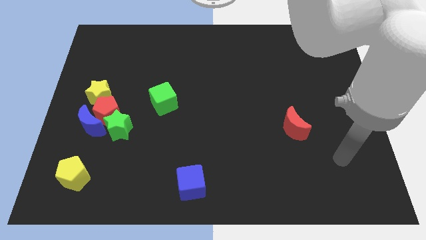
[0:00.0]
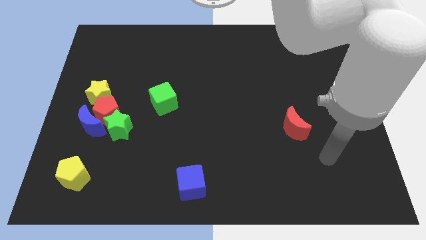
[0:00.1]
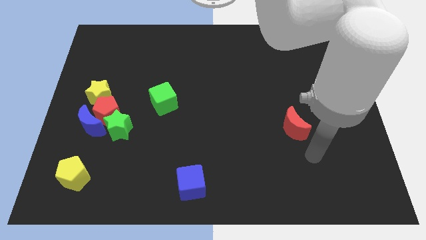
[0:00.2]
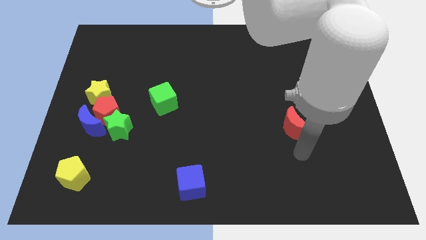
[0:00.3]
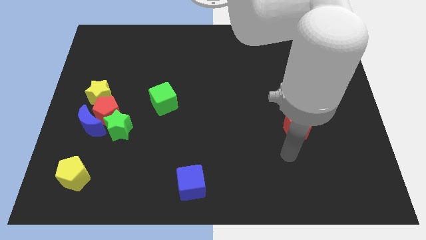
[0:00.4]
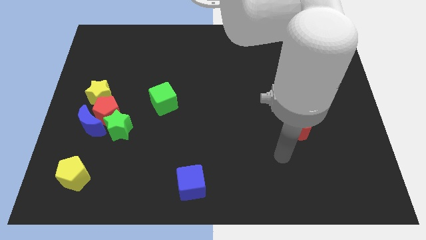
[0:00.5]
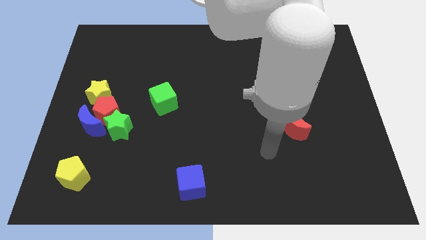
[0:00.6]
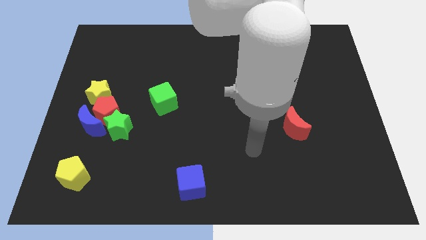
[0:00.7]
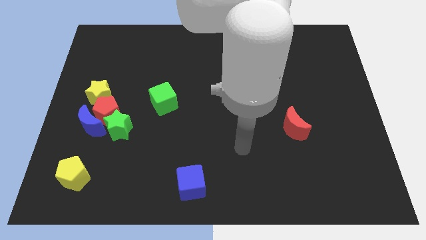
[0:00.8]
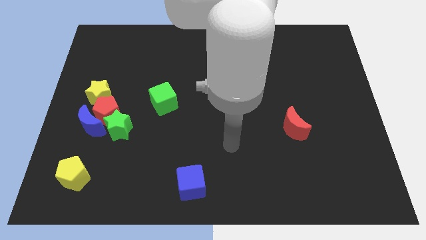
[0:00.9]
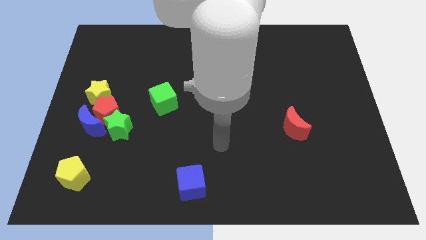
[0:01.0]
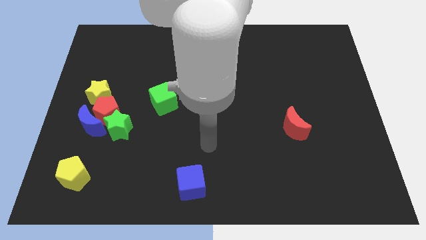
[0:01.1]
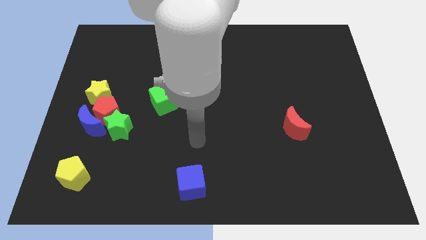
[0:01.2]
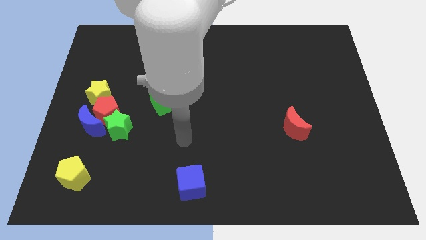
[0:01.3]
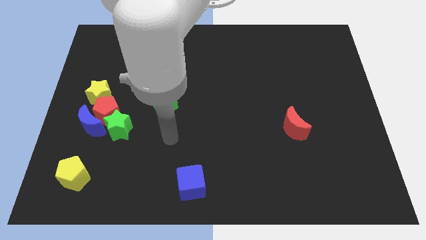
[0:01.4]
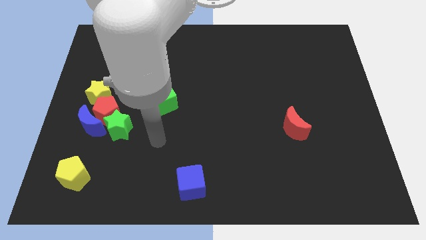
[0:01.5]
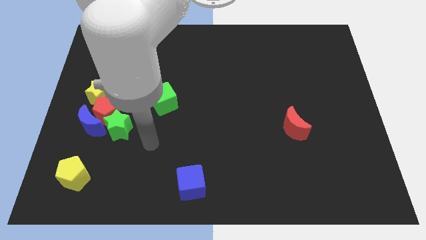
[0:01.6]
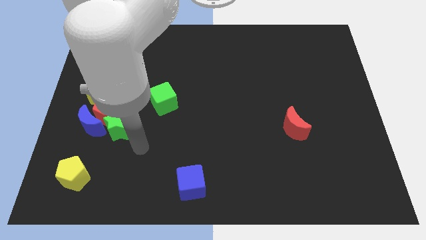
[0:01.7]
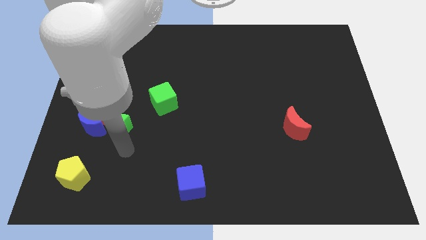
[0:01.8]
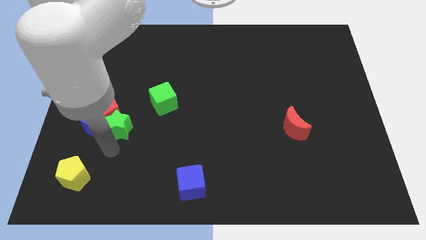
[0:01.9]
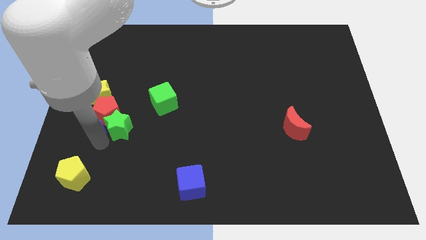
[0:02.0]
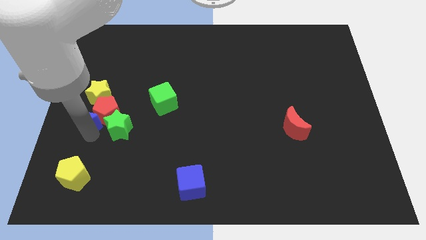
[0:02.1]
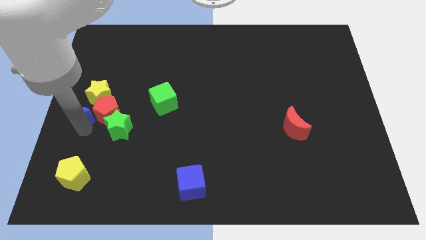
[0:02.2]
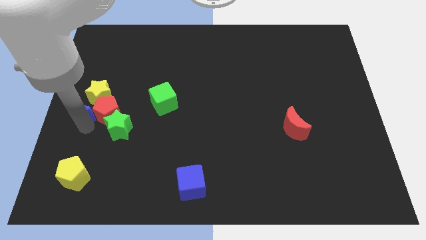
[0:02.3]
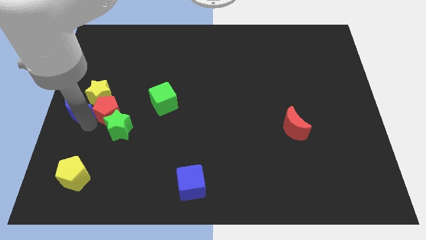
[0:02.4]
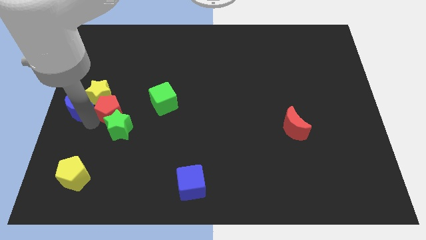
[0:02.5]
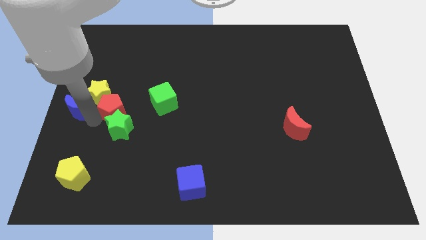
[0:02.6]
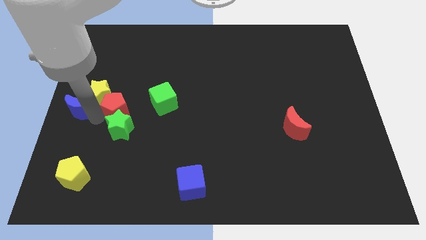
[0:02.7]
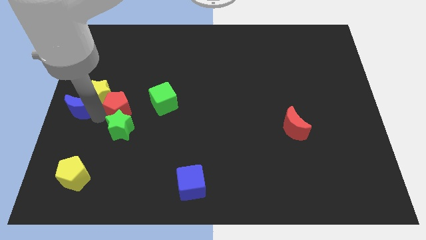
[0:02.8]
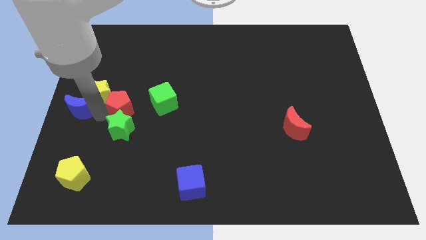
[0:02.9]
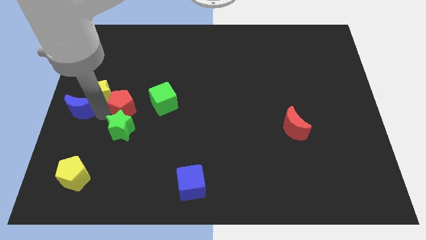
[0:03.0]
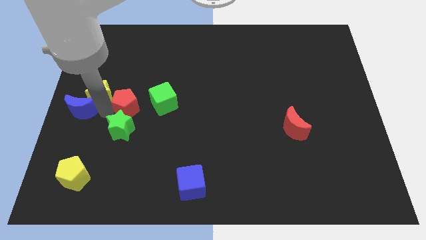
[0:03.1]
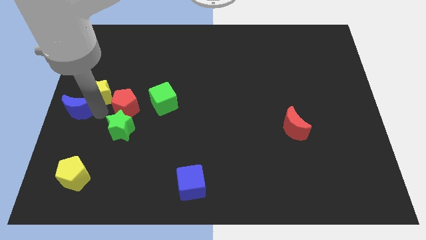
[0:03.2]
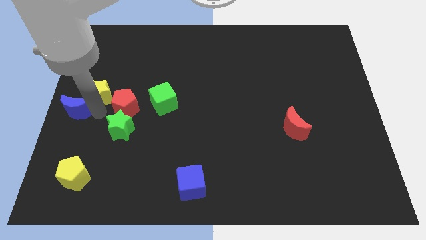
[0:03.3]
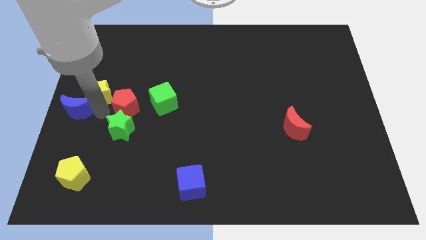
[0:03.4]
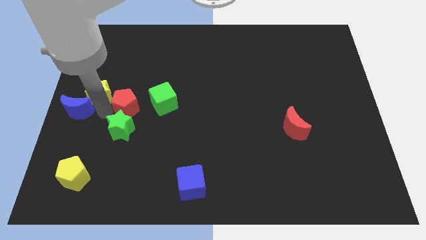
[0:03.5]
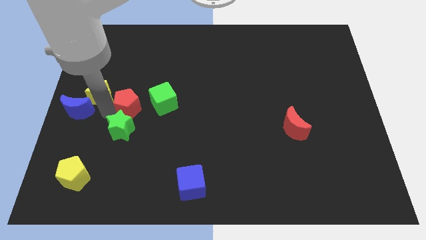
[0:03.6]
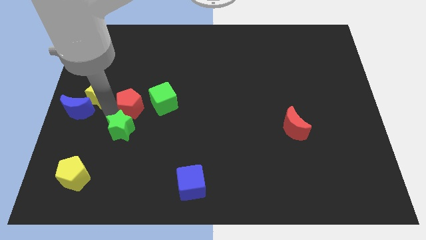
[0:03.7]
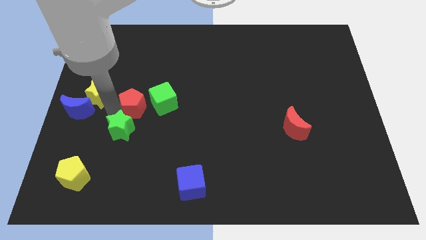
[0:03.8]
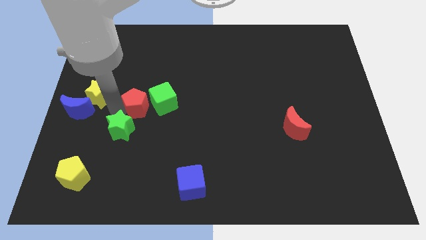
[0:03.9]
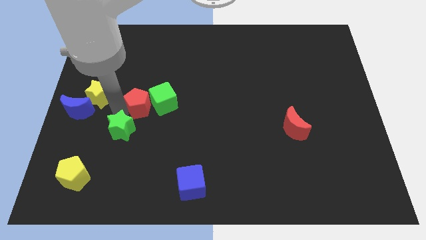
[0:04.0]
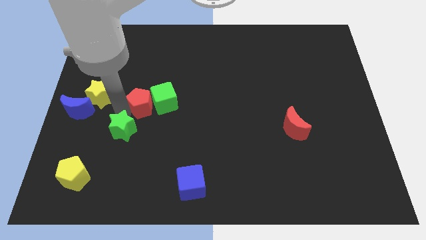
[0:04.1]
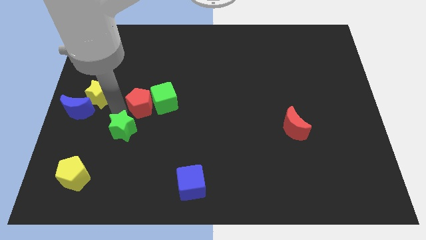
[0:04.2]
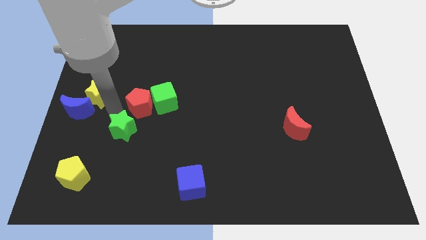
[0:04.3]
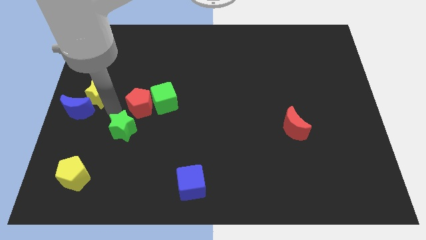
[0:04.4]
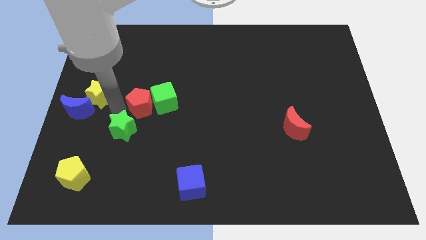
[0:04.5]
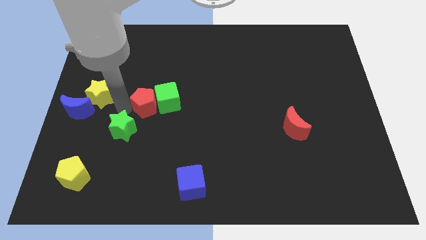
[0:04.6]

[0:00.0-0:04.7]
move the red pentagon away from the group of blocks

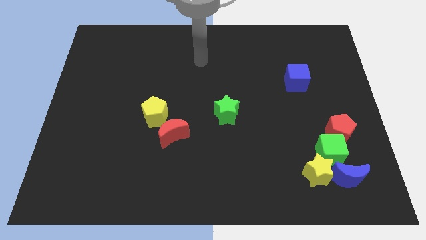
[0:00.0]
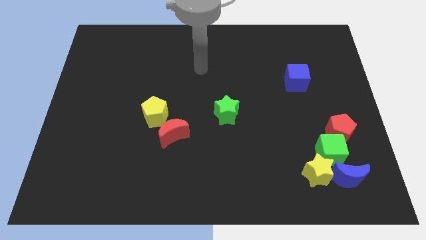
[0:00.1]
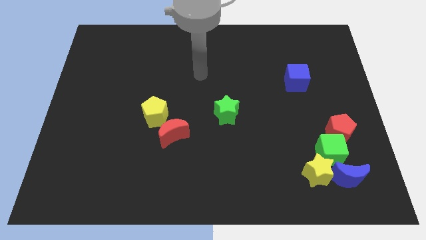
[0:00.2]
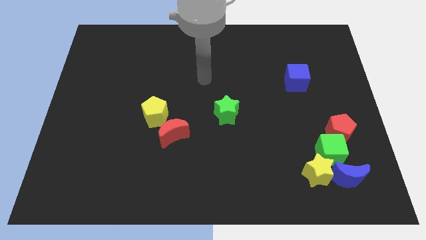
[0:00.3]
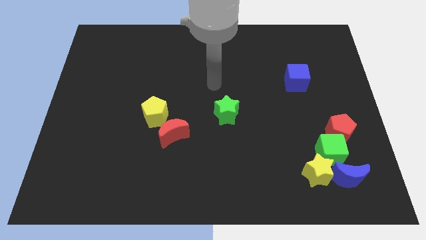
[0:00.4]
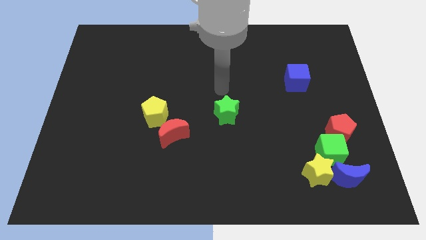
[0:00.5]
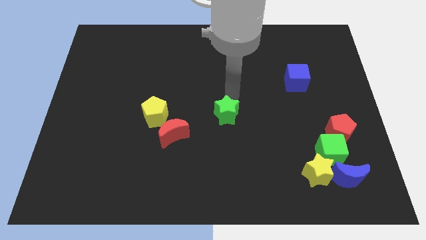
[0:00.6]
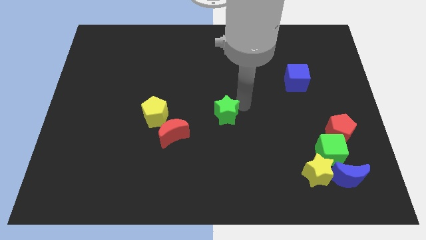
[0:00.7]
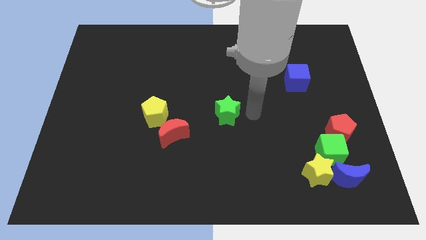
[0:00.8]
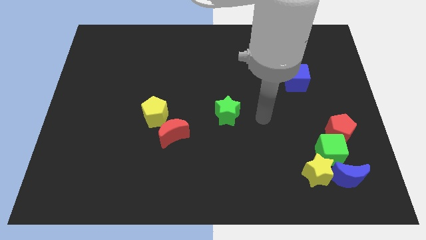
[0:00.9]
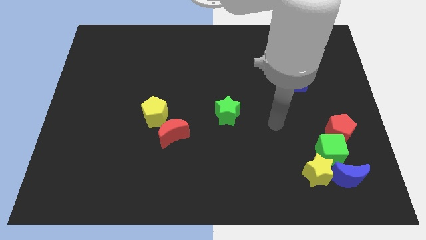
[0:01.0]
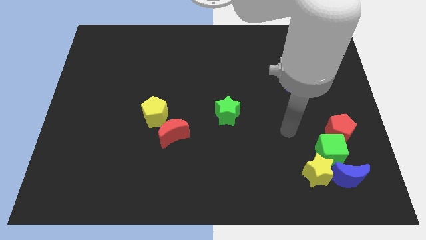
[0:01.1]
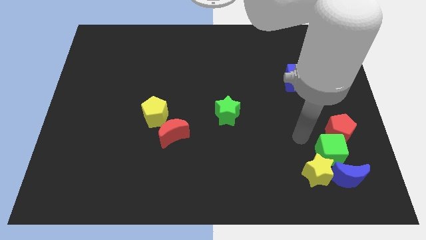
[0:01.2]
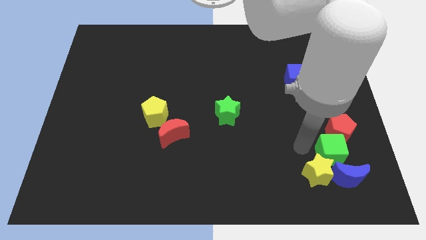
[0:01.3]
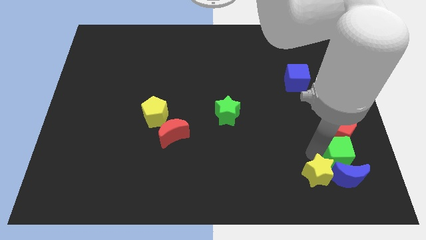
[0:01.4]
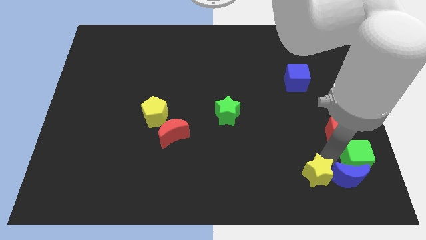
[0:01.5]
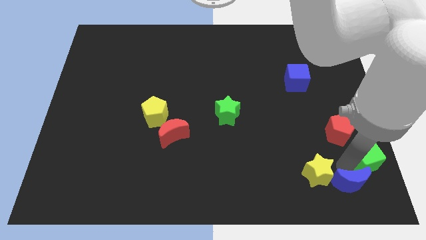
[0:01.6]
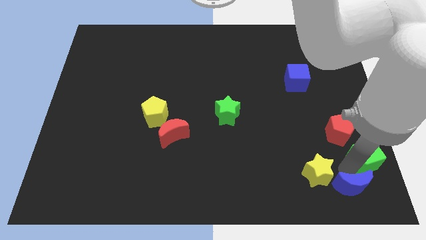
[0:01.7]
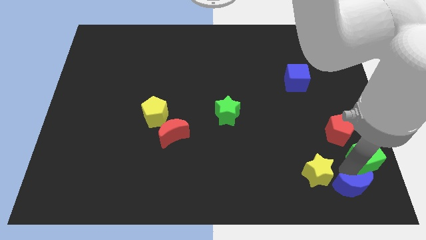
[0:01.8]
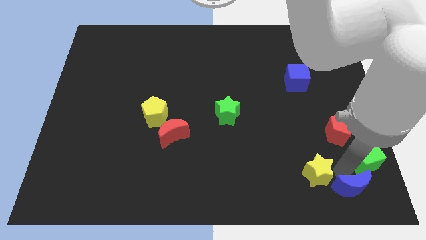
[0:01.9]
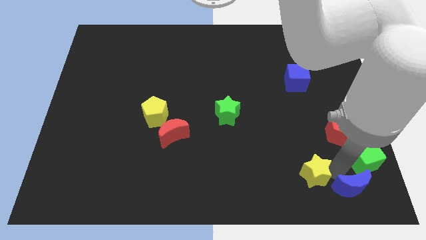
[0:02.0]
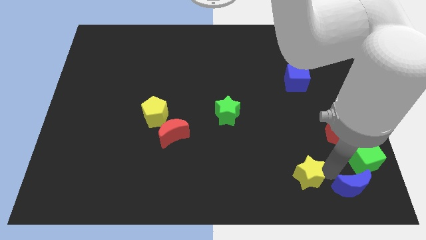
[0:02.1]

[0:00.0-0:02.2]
pull the yellow star apart from the green cube and blue moon

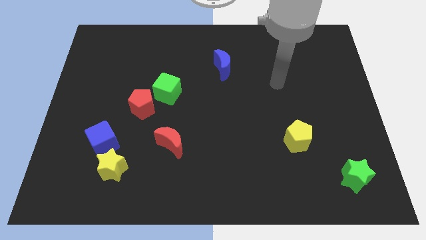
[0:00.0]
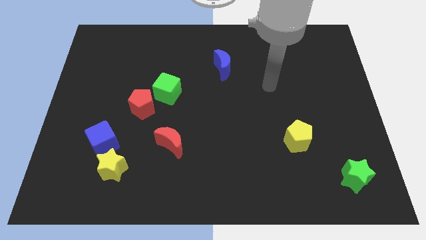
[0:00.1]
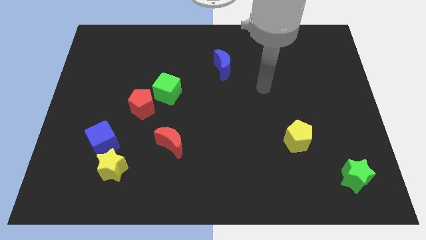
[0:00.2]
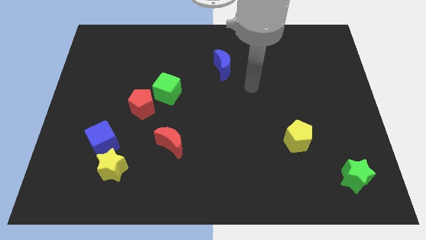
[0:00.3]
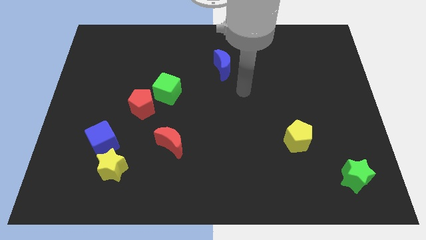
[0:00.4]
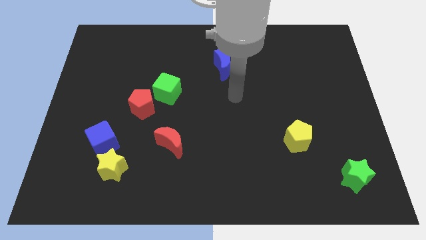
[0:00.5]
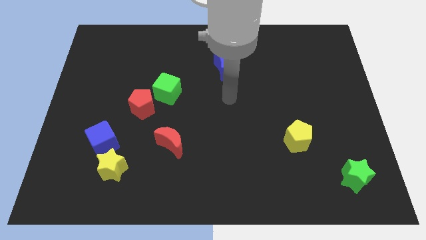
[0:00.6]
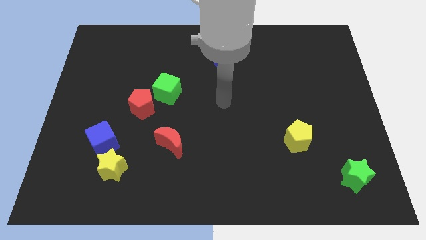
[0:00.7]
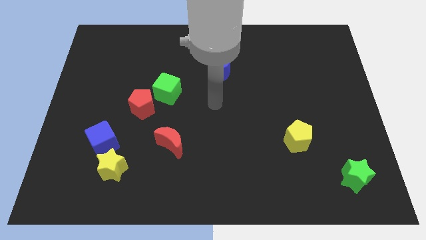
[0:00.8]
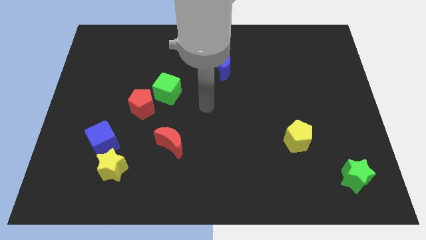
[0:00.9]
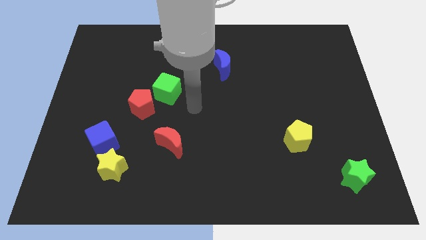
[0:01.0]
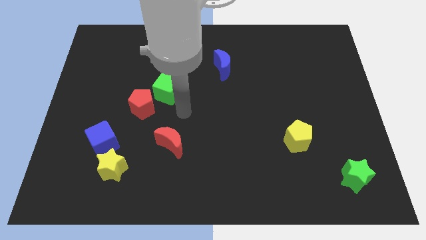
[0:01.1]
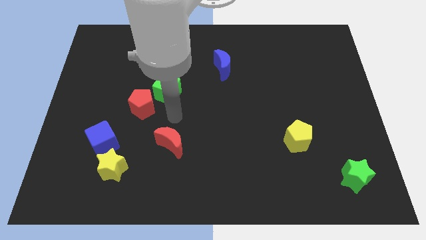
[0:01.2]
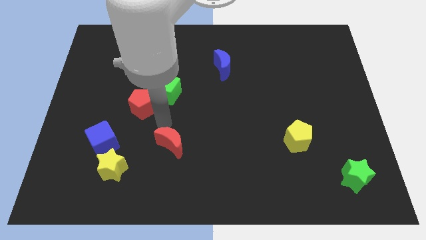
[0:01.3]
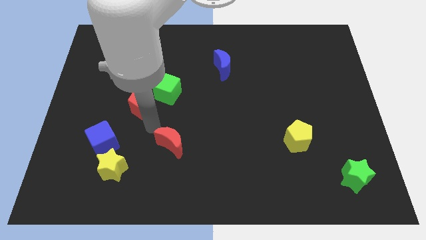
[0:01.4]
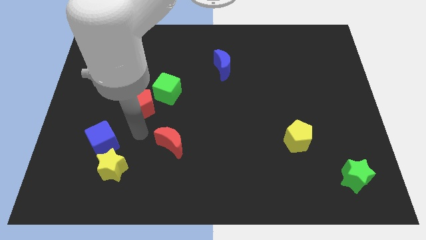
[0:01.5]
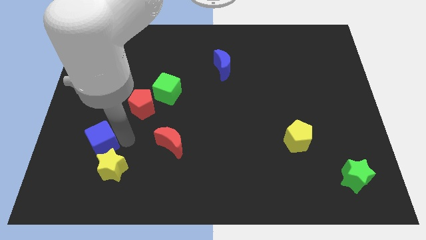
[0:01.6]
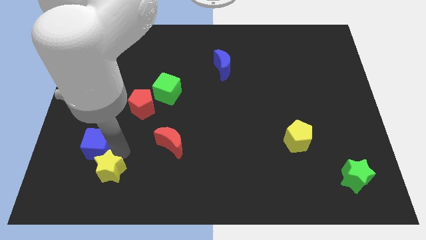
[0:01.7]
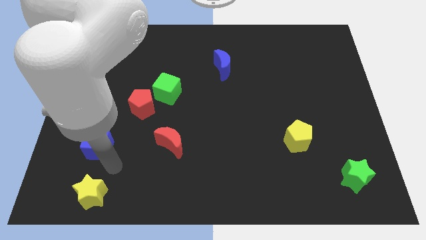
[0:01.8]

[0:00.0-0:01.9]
move the blue cube away from the yellow star

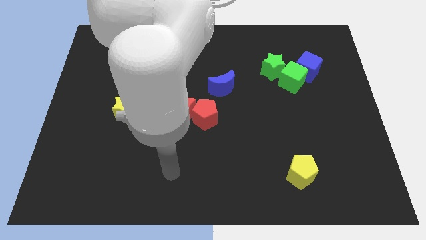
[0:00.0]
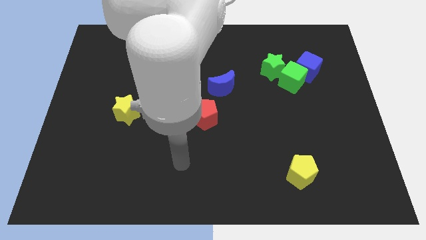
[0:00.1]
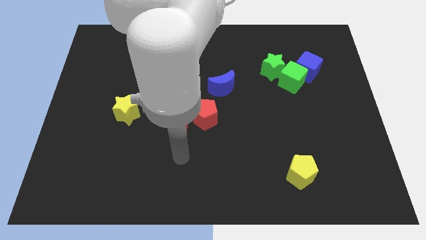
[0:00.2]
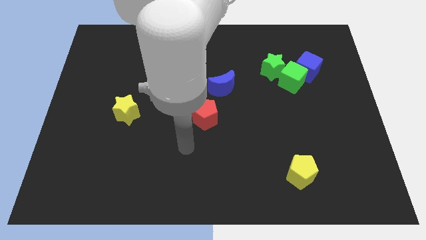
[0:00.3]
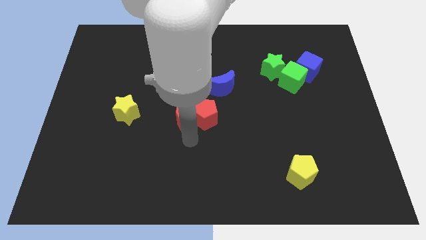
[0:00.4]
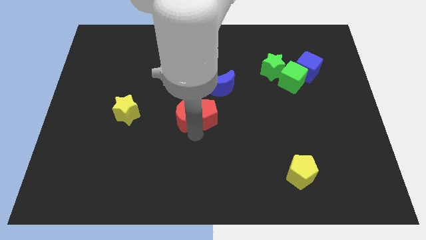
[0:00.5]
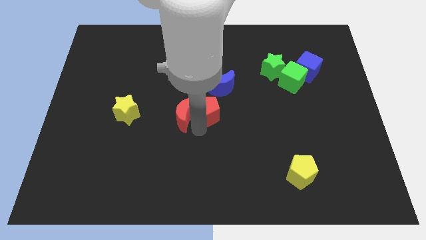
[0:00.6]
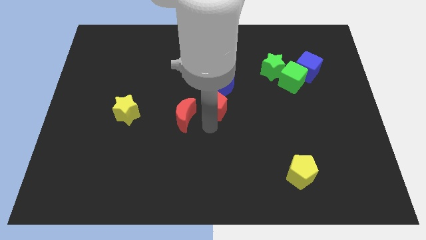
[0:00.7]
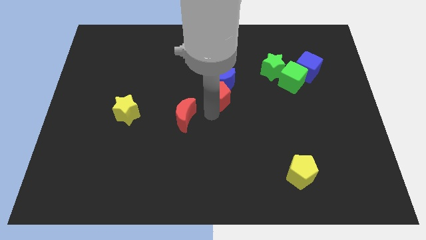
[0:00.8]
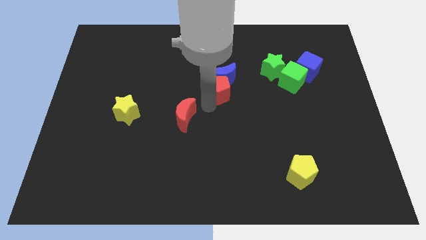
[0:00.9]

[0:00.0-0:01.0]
separate the red moon from the red pentagon
